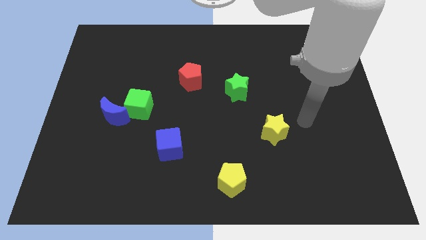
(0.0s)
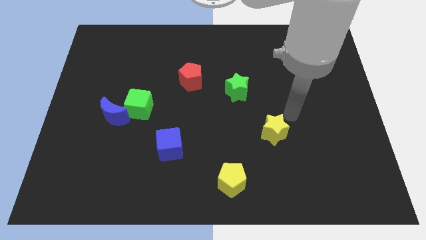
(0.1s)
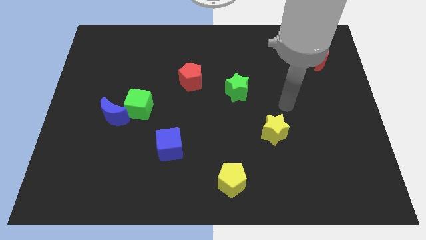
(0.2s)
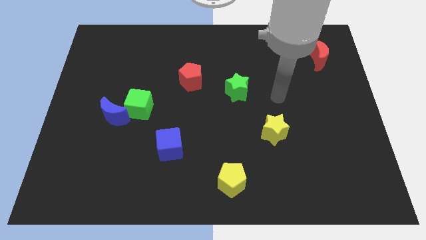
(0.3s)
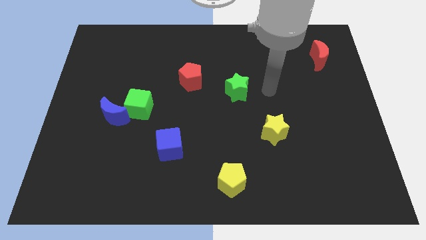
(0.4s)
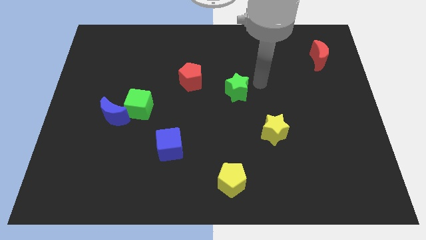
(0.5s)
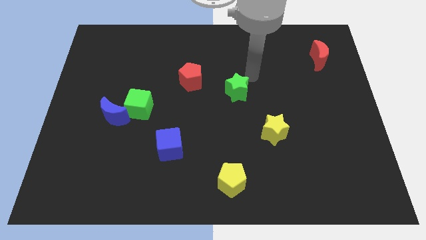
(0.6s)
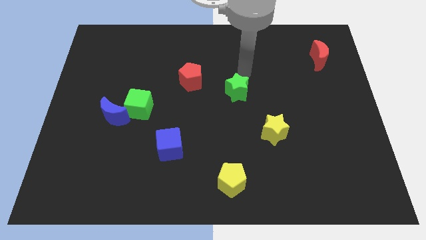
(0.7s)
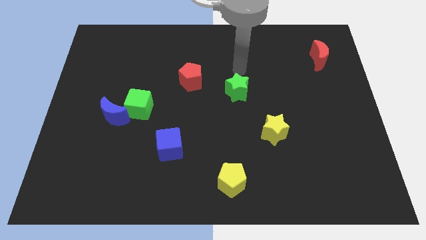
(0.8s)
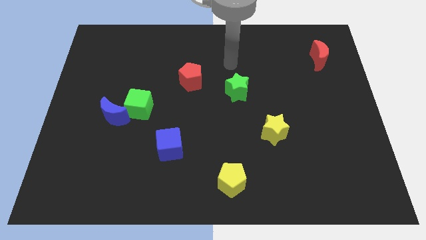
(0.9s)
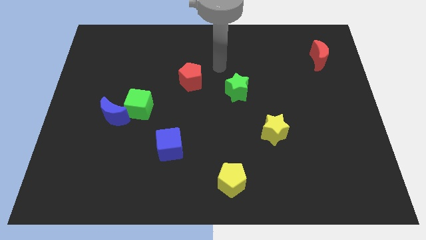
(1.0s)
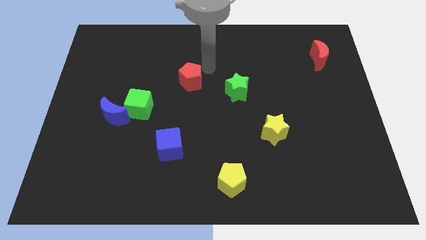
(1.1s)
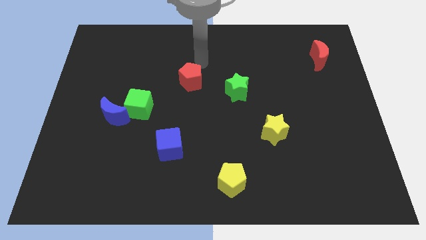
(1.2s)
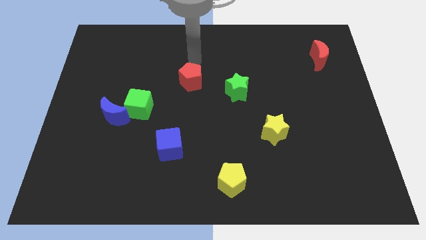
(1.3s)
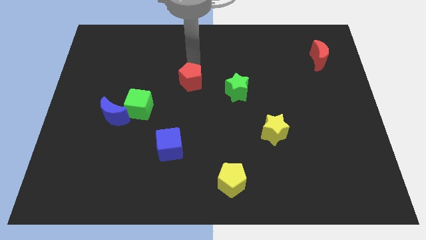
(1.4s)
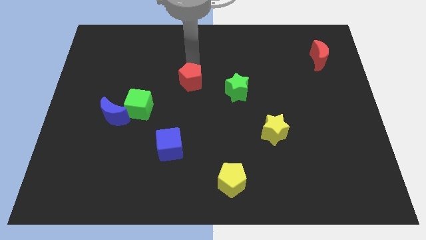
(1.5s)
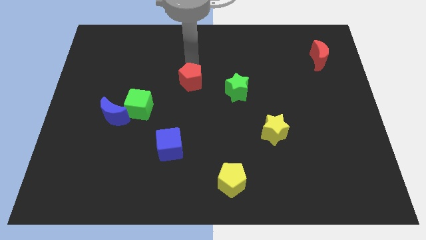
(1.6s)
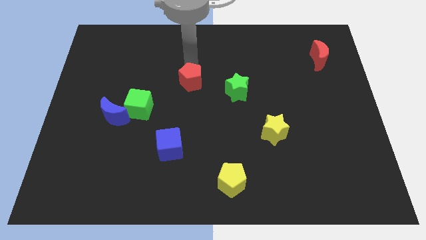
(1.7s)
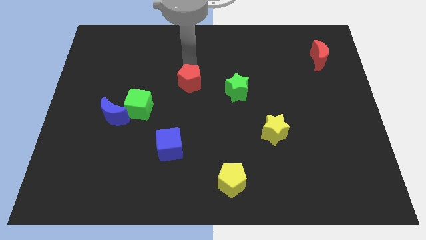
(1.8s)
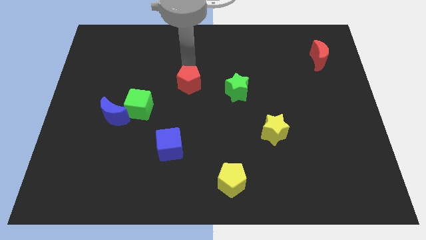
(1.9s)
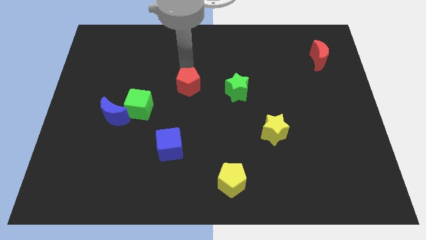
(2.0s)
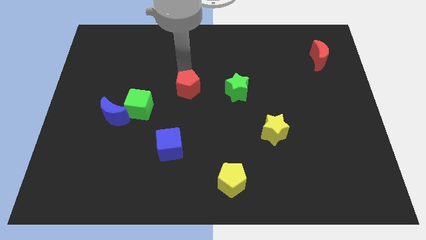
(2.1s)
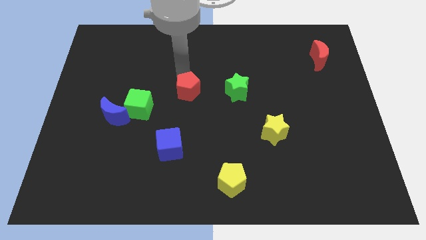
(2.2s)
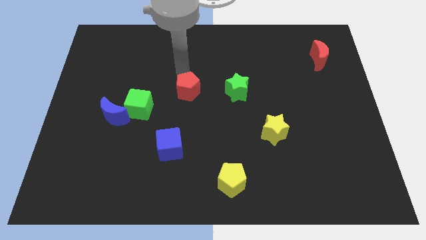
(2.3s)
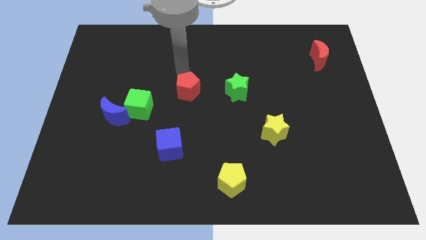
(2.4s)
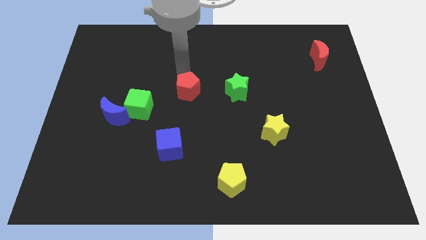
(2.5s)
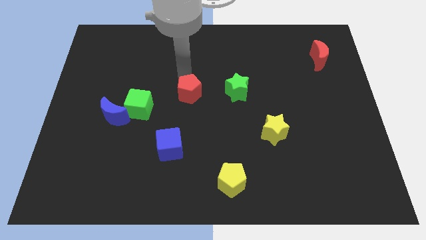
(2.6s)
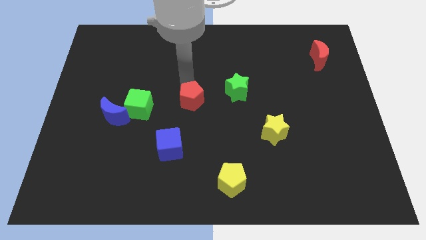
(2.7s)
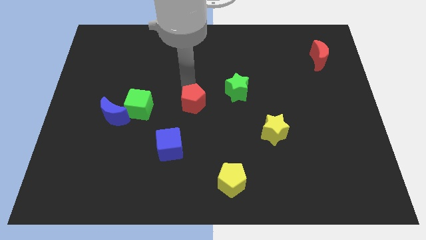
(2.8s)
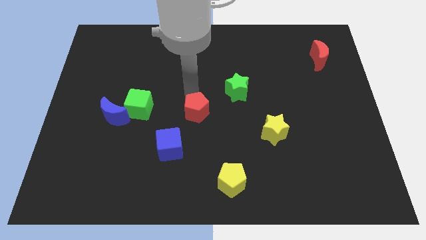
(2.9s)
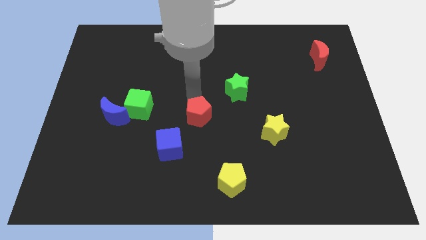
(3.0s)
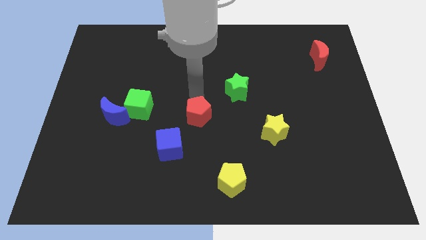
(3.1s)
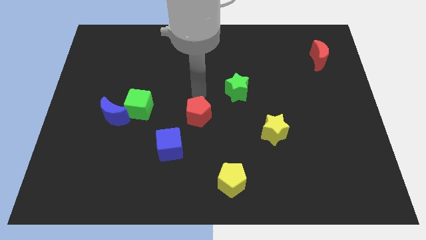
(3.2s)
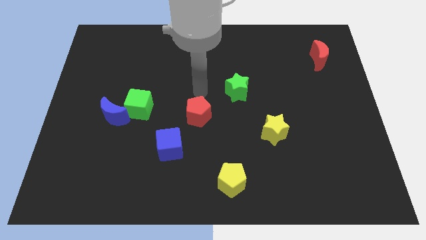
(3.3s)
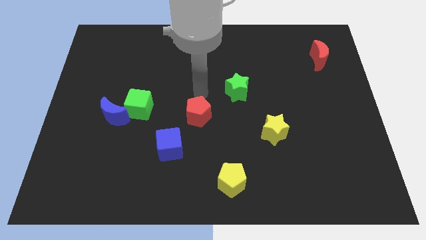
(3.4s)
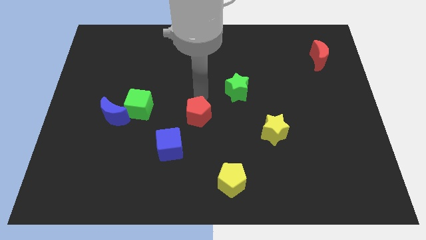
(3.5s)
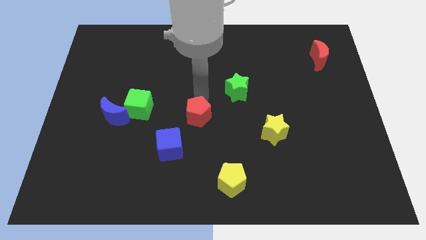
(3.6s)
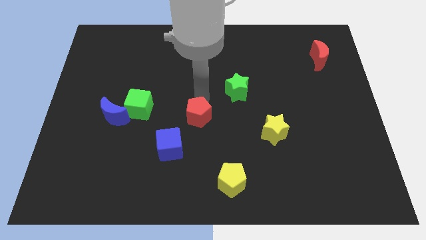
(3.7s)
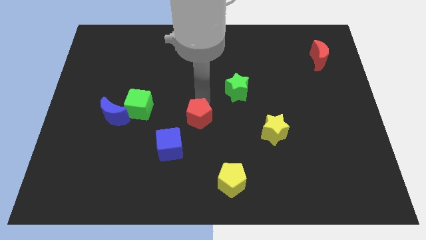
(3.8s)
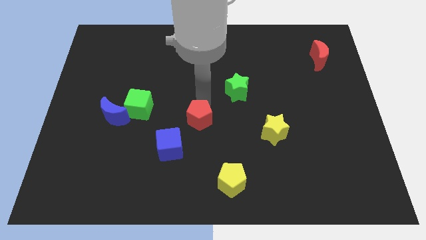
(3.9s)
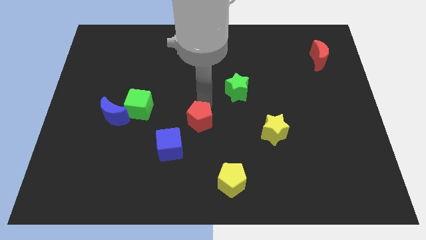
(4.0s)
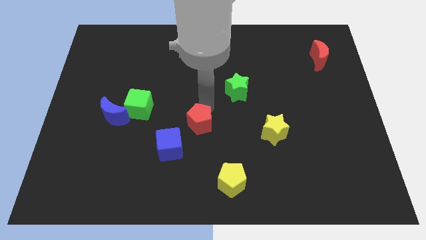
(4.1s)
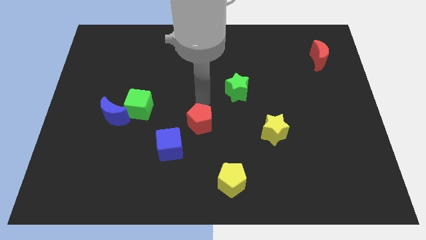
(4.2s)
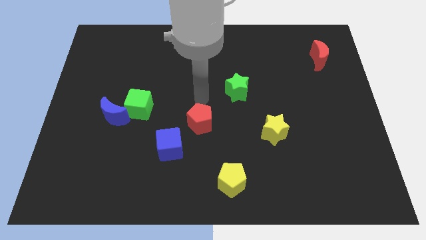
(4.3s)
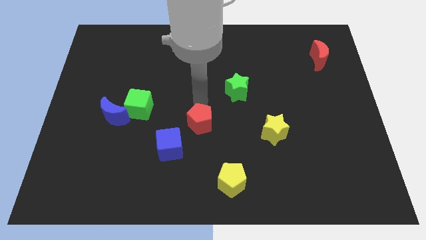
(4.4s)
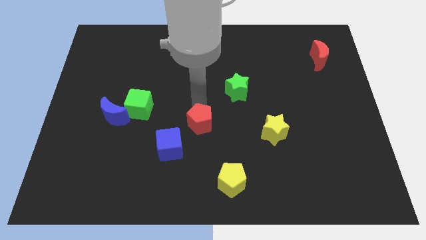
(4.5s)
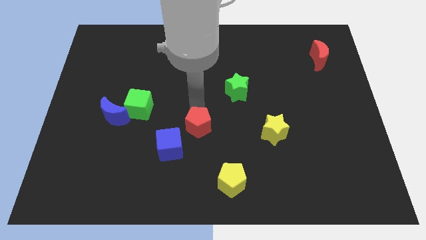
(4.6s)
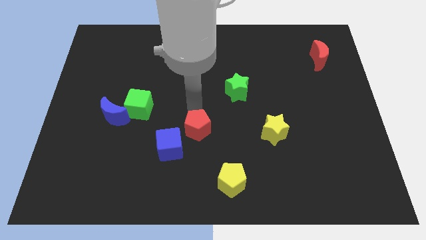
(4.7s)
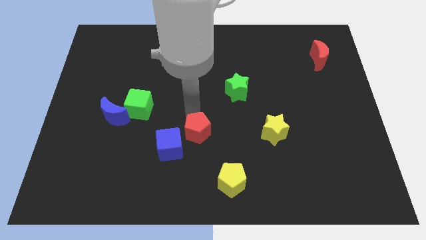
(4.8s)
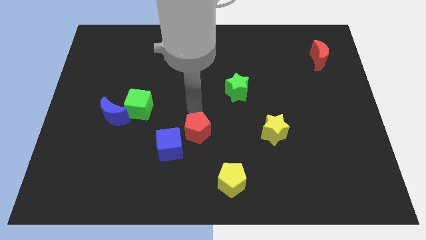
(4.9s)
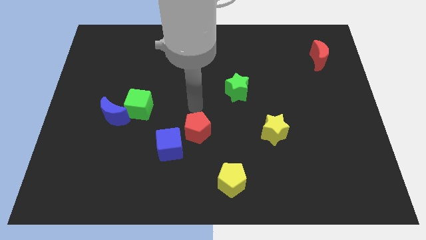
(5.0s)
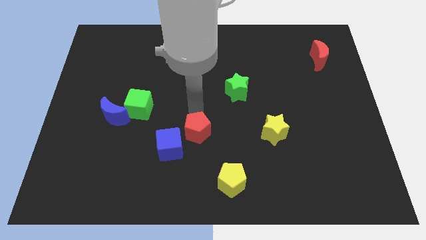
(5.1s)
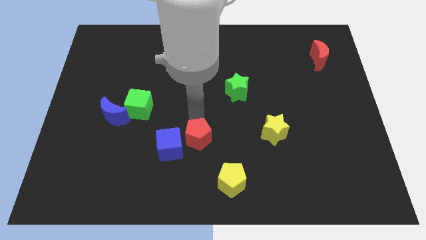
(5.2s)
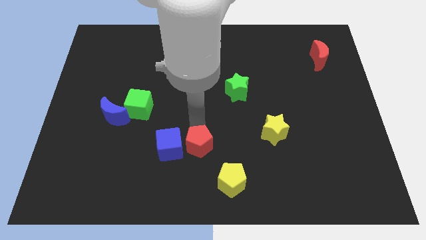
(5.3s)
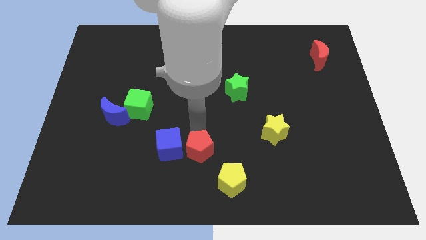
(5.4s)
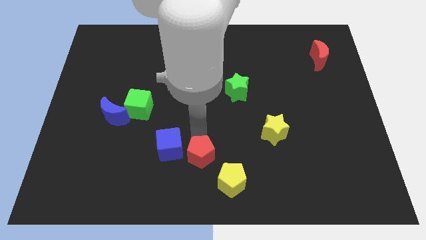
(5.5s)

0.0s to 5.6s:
slide the red pentagon to the bottom side

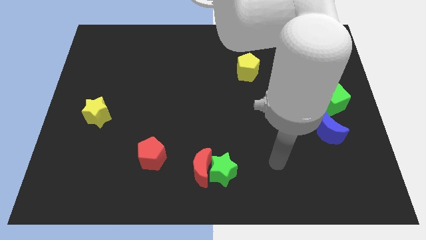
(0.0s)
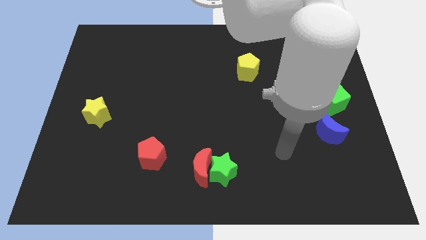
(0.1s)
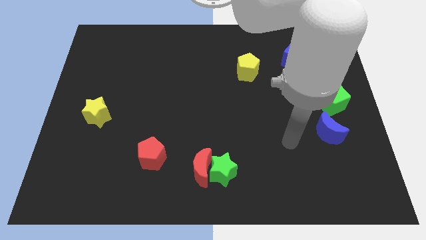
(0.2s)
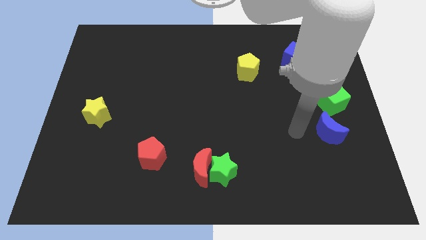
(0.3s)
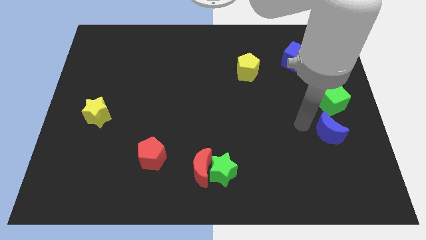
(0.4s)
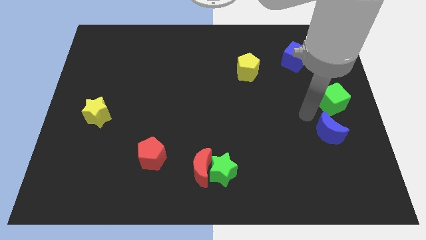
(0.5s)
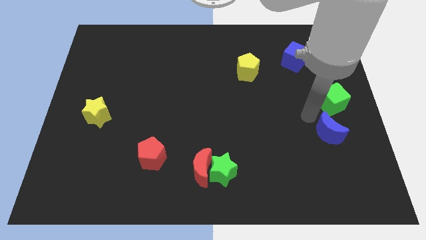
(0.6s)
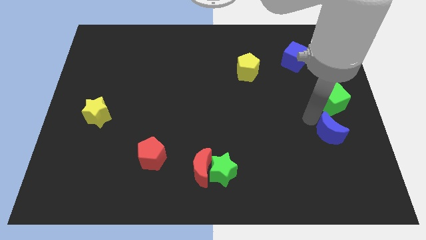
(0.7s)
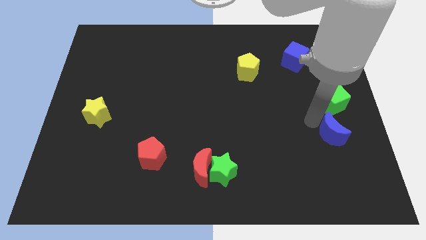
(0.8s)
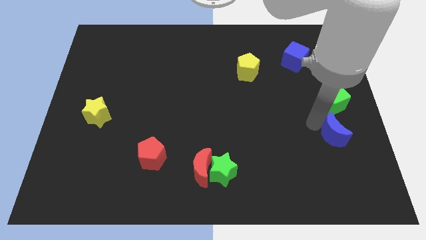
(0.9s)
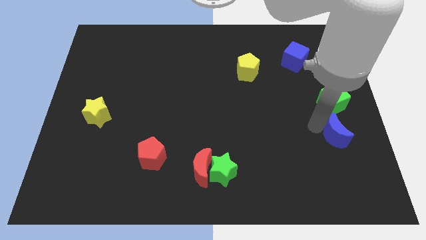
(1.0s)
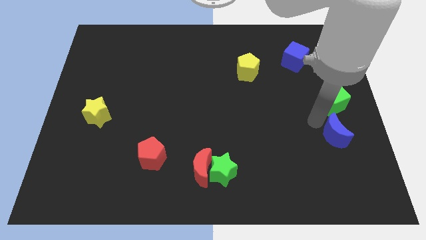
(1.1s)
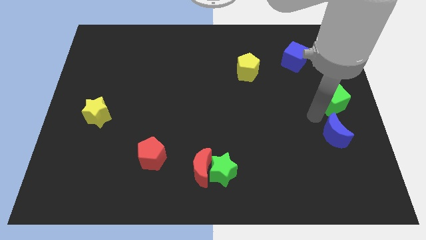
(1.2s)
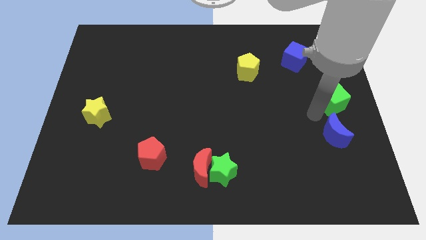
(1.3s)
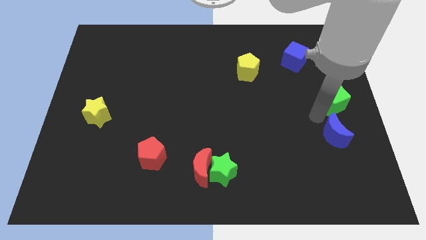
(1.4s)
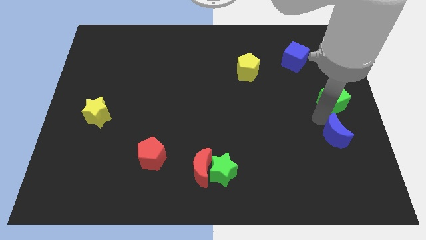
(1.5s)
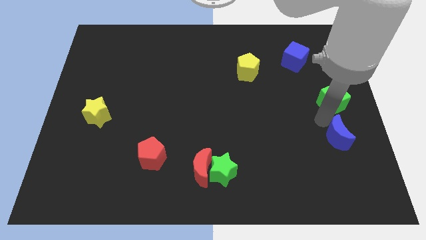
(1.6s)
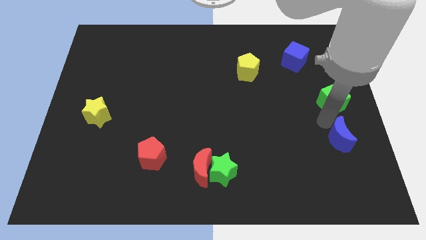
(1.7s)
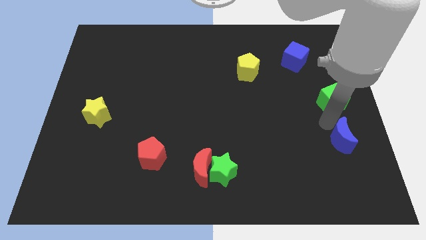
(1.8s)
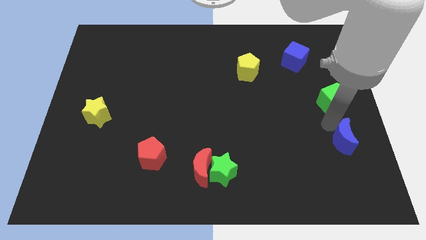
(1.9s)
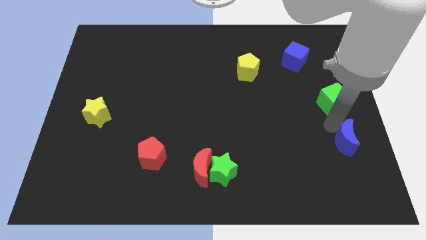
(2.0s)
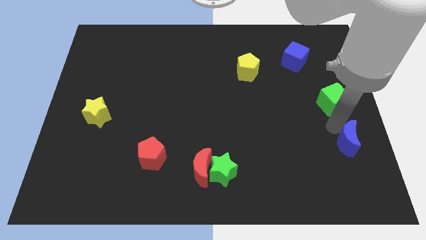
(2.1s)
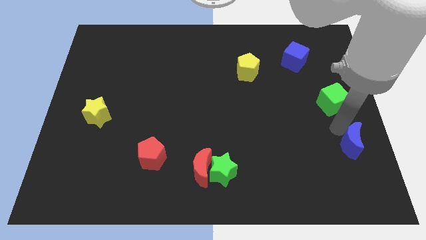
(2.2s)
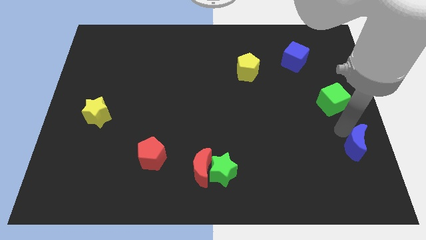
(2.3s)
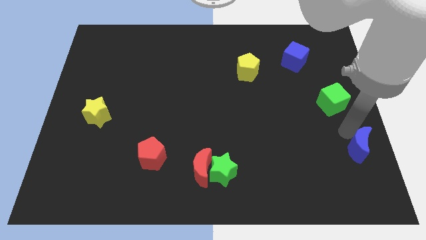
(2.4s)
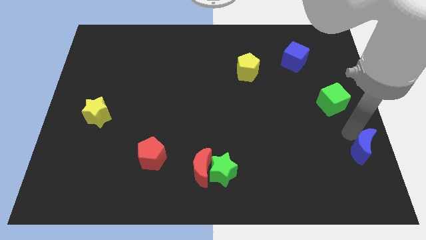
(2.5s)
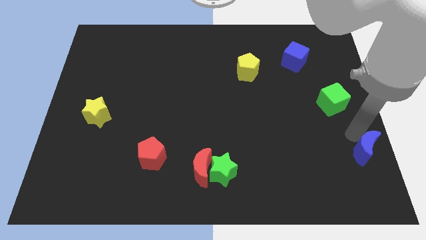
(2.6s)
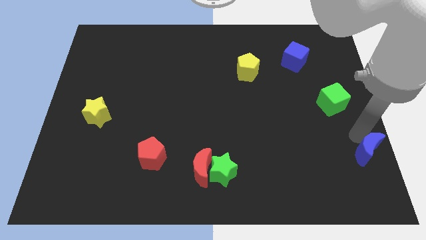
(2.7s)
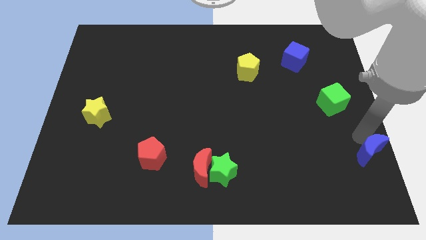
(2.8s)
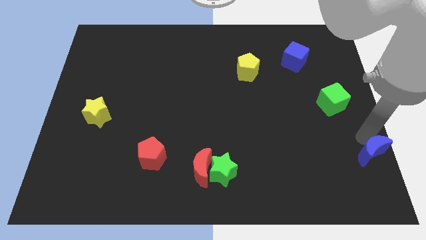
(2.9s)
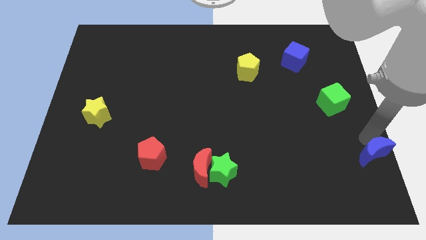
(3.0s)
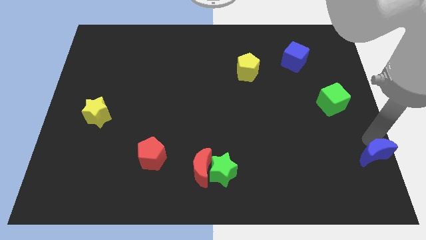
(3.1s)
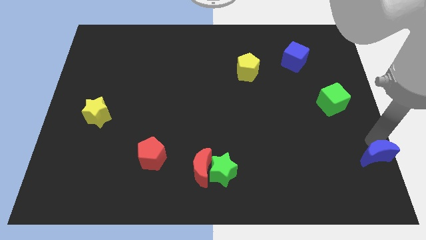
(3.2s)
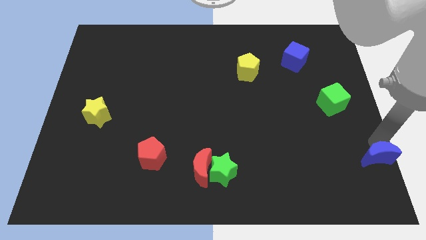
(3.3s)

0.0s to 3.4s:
put the blue moon to the bottom right of the board
